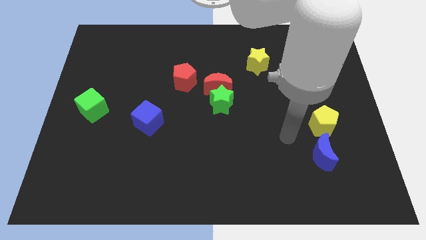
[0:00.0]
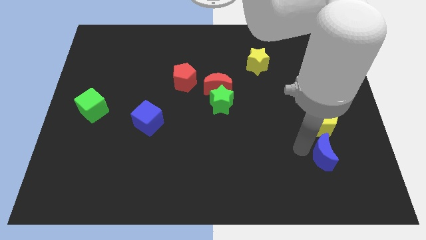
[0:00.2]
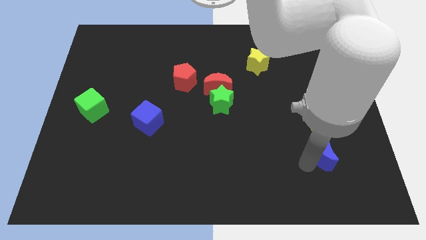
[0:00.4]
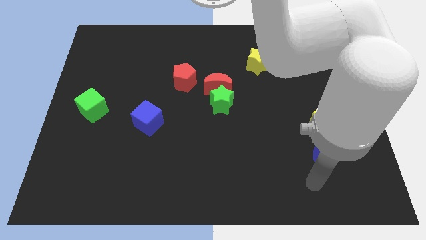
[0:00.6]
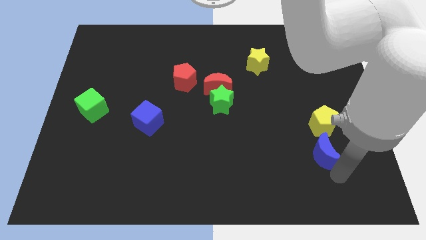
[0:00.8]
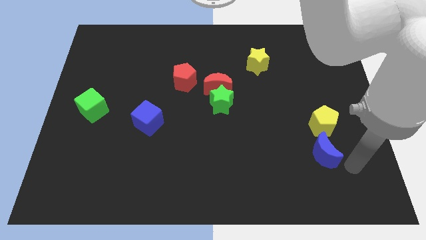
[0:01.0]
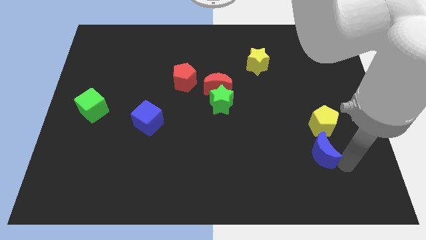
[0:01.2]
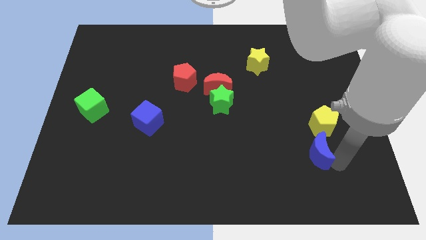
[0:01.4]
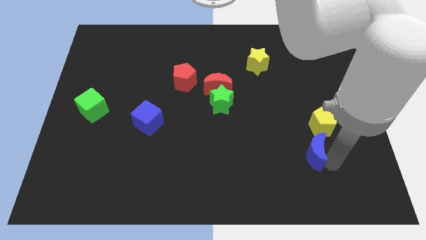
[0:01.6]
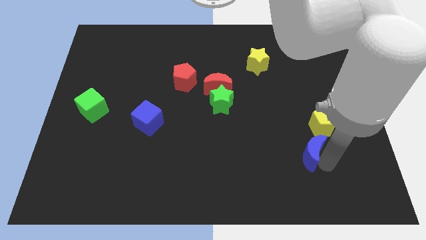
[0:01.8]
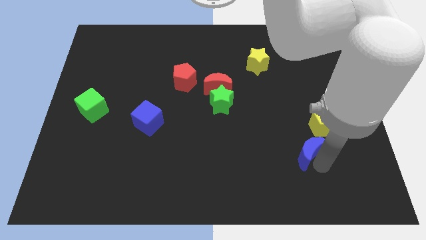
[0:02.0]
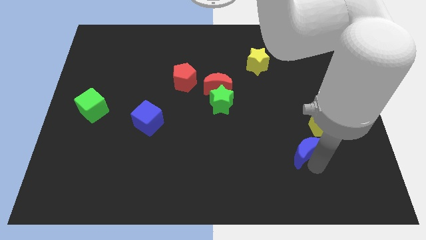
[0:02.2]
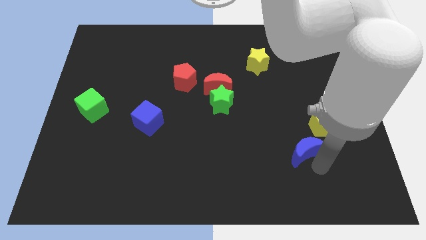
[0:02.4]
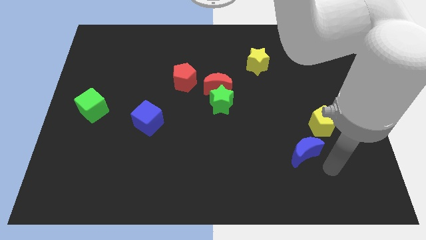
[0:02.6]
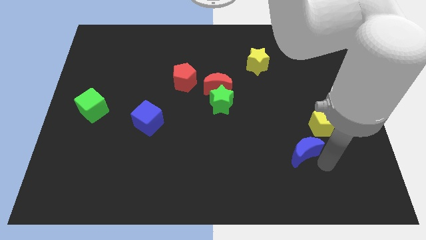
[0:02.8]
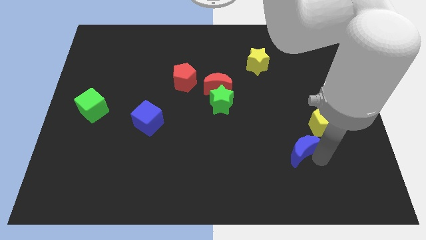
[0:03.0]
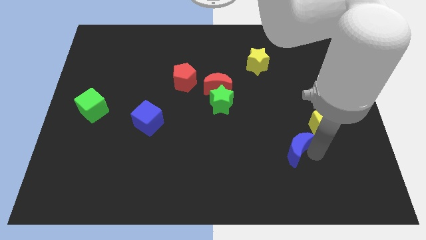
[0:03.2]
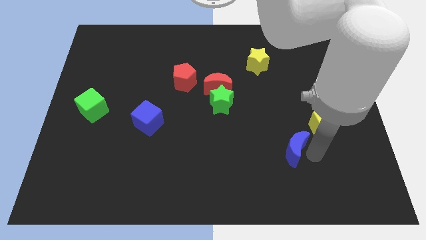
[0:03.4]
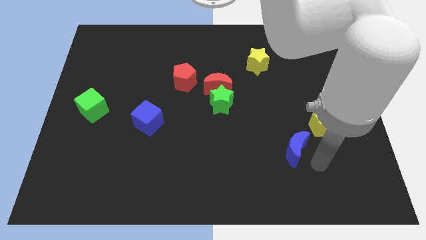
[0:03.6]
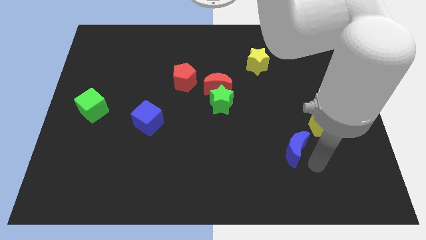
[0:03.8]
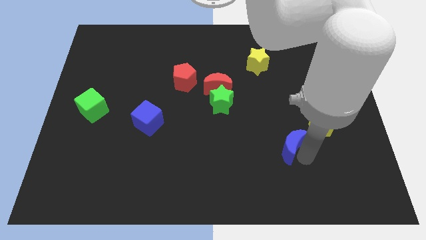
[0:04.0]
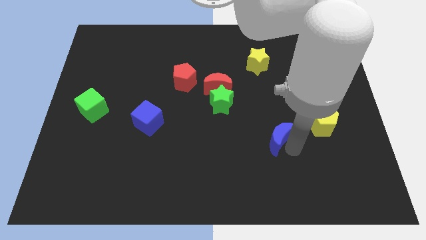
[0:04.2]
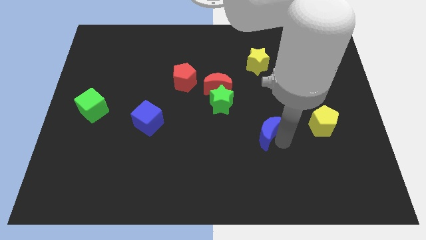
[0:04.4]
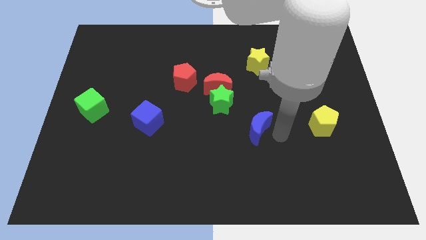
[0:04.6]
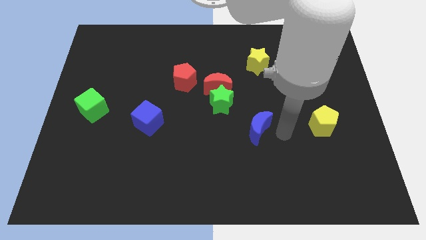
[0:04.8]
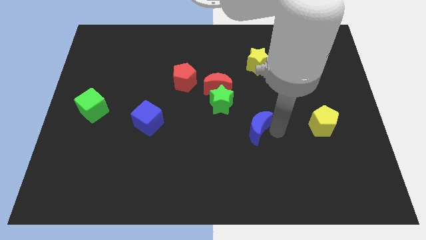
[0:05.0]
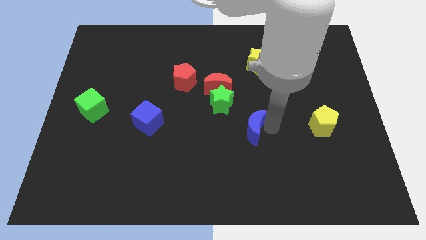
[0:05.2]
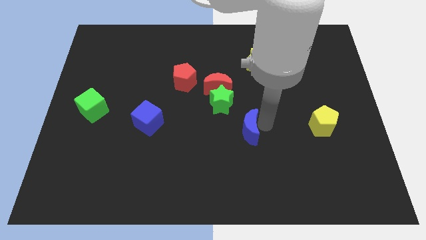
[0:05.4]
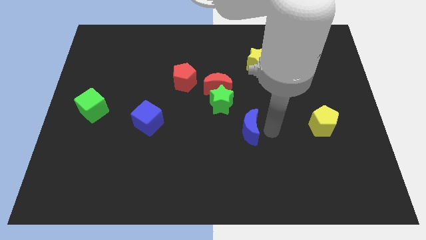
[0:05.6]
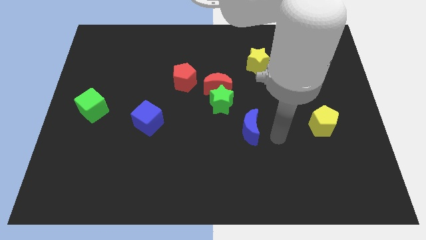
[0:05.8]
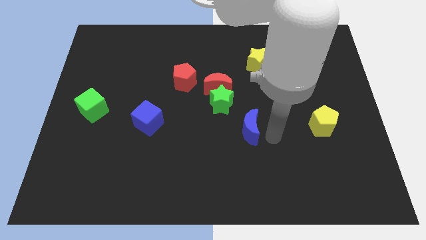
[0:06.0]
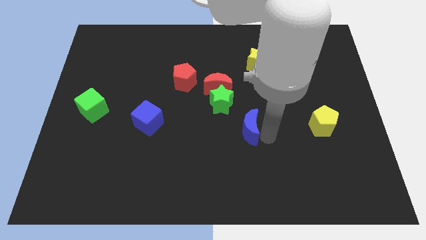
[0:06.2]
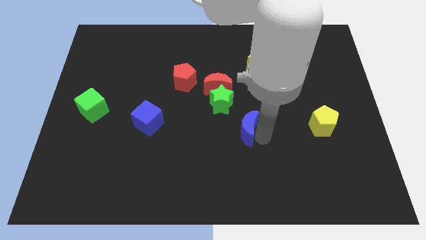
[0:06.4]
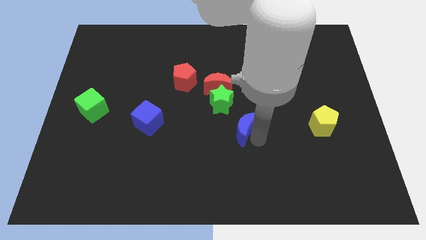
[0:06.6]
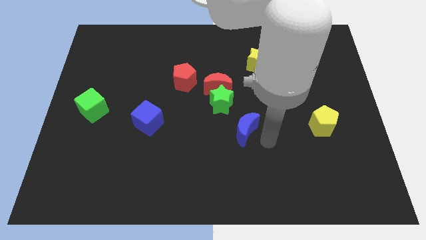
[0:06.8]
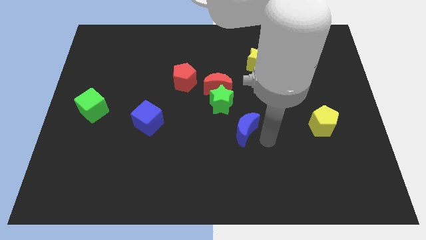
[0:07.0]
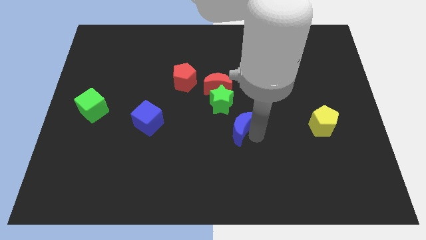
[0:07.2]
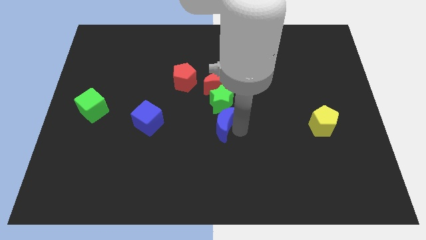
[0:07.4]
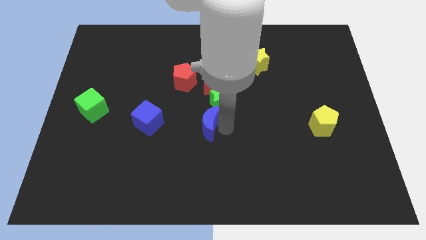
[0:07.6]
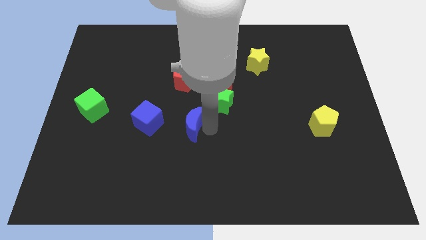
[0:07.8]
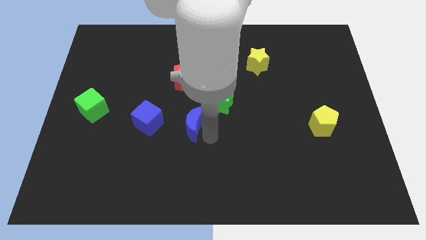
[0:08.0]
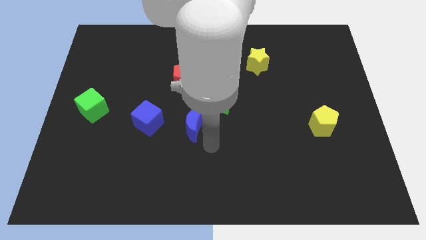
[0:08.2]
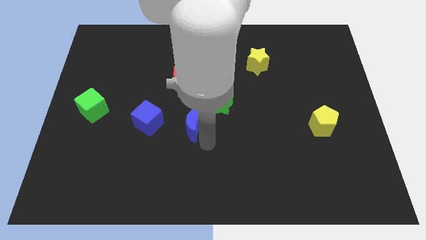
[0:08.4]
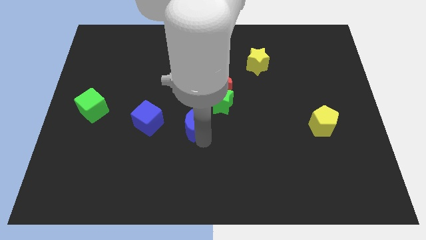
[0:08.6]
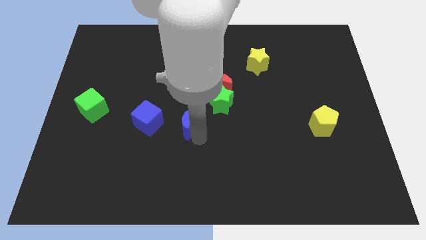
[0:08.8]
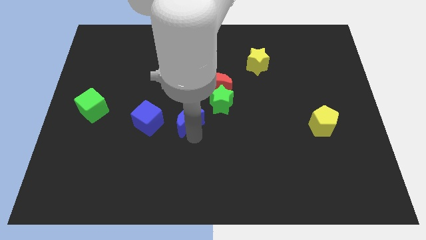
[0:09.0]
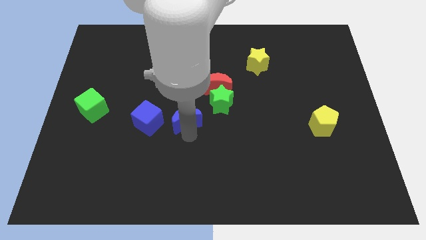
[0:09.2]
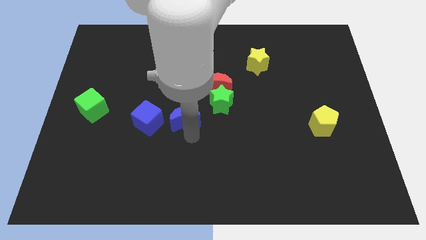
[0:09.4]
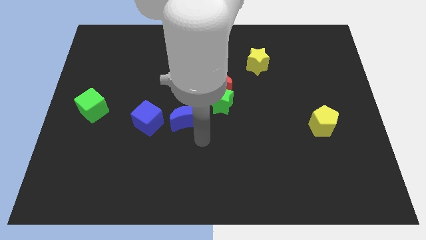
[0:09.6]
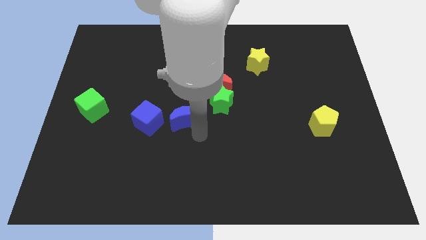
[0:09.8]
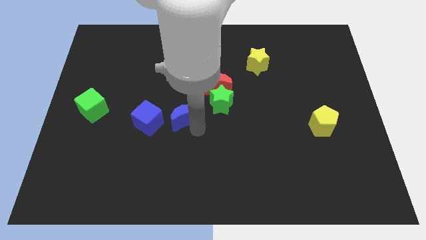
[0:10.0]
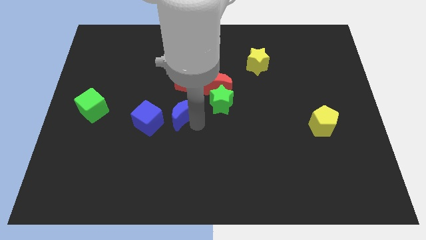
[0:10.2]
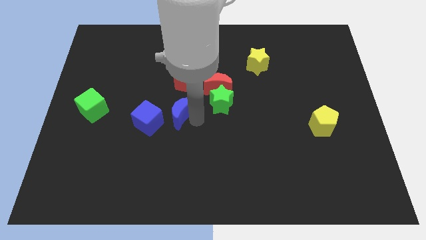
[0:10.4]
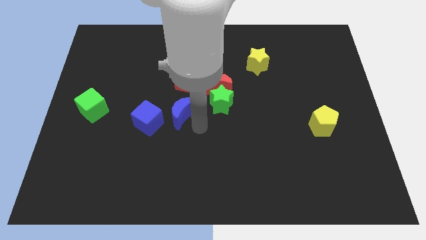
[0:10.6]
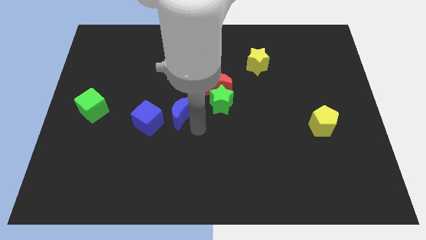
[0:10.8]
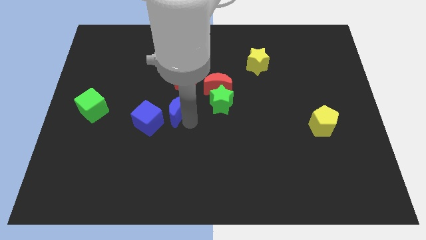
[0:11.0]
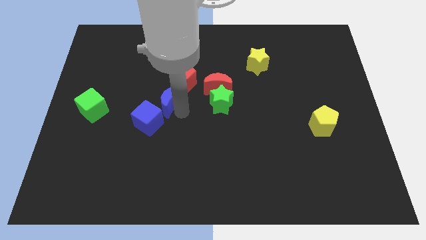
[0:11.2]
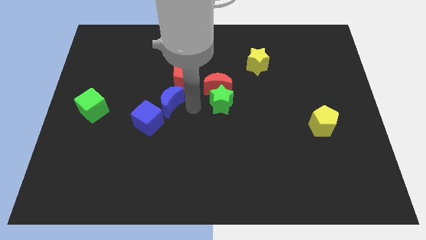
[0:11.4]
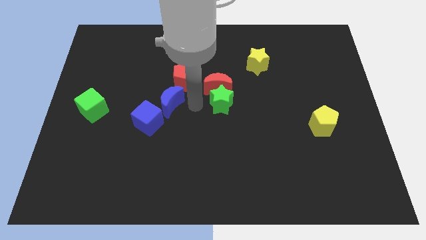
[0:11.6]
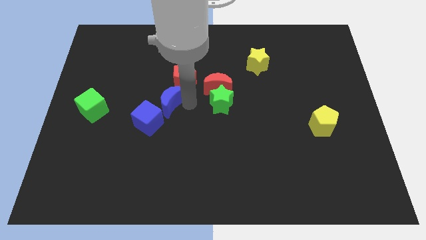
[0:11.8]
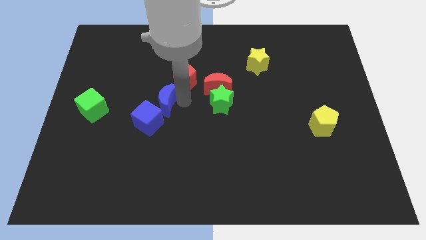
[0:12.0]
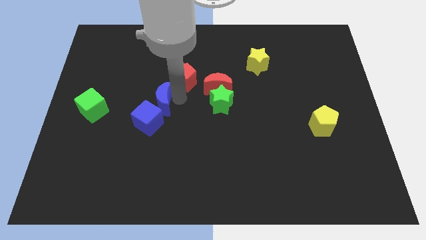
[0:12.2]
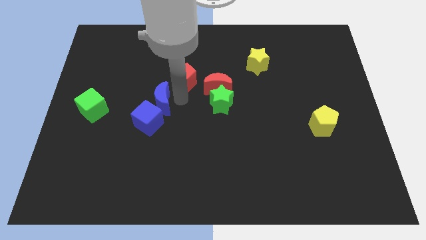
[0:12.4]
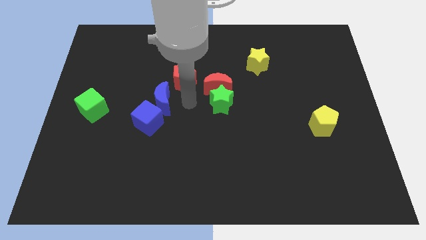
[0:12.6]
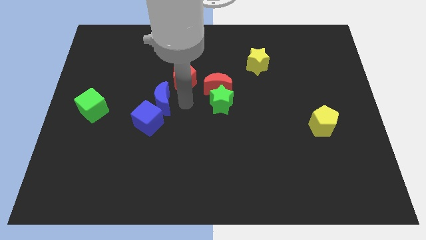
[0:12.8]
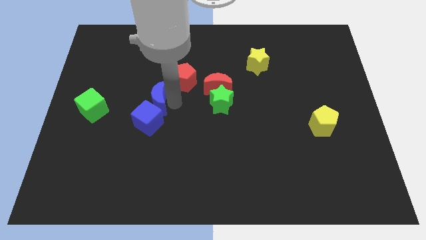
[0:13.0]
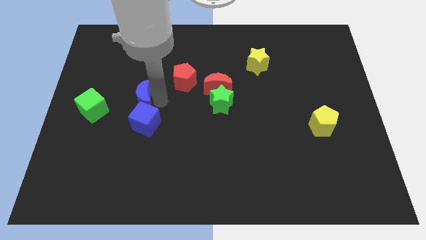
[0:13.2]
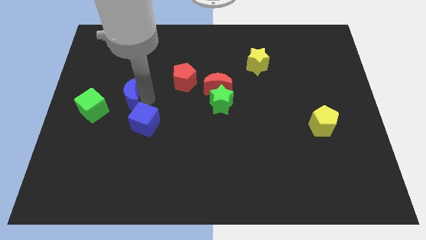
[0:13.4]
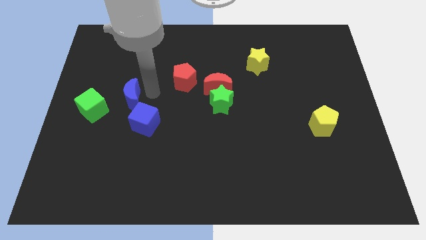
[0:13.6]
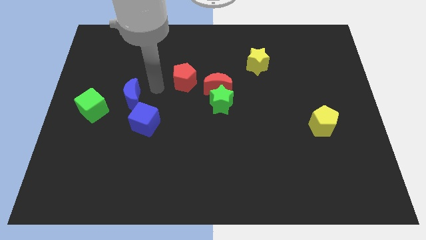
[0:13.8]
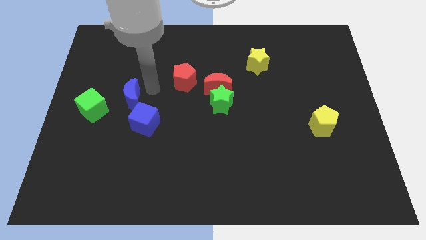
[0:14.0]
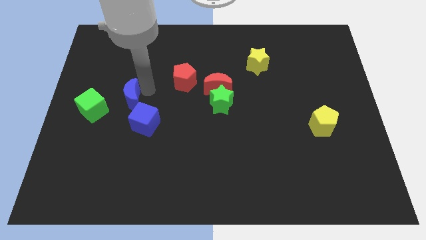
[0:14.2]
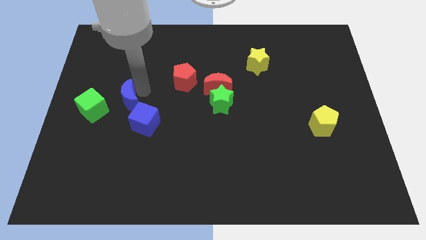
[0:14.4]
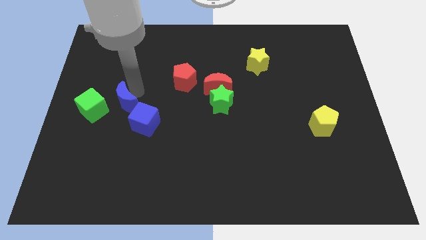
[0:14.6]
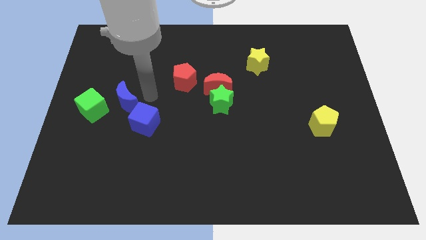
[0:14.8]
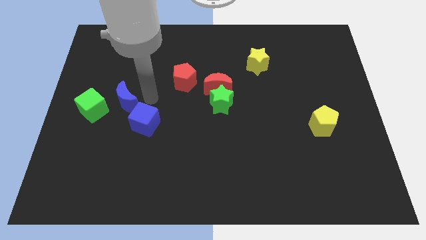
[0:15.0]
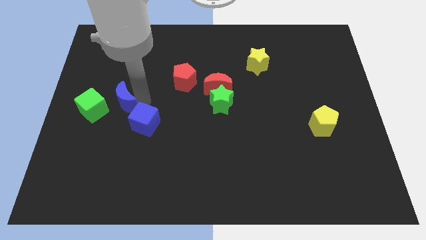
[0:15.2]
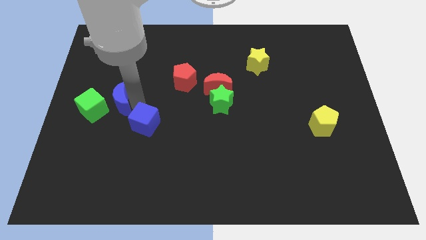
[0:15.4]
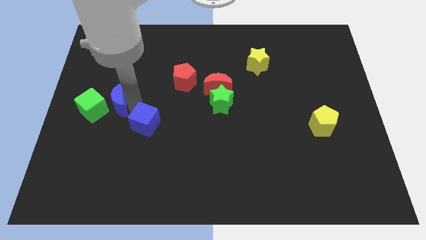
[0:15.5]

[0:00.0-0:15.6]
put the blue moon to the green cube
